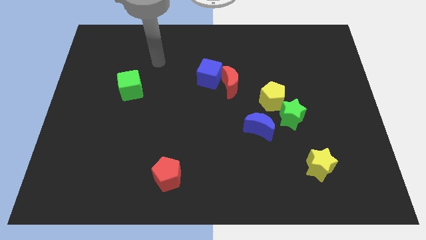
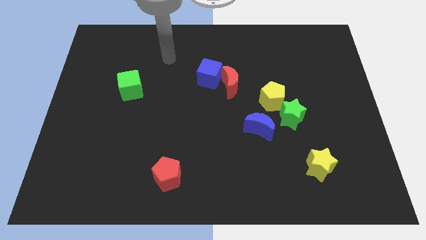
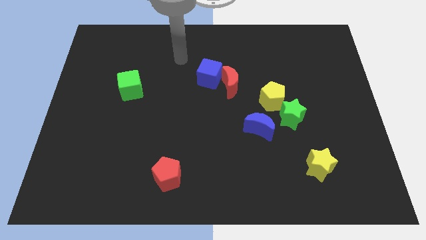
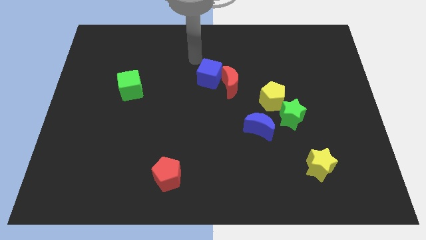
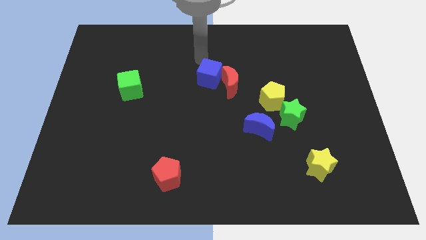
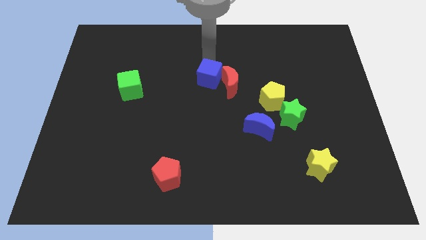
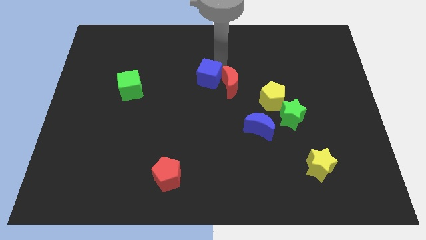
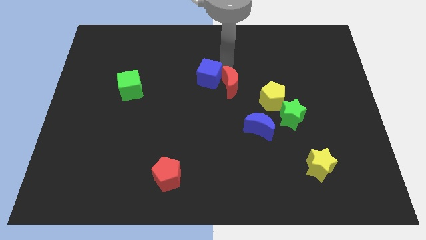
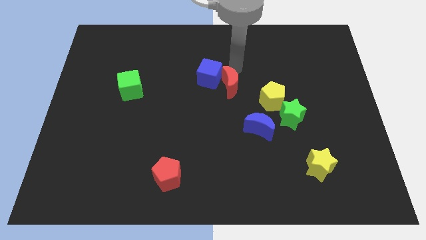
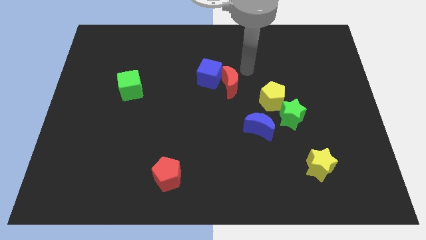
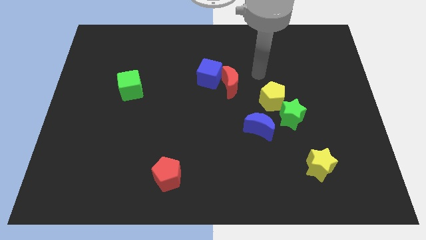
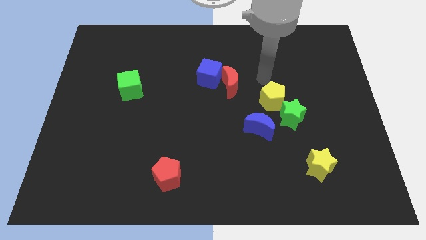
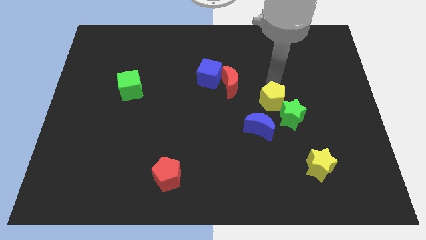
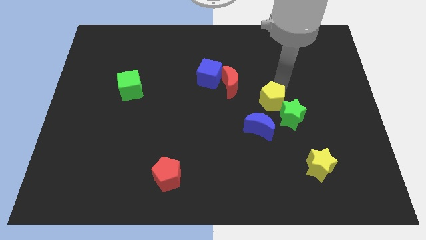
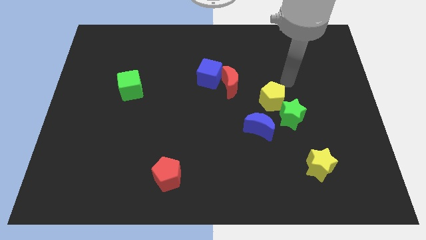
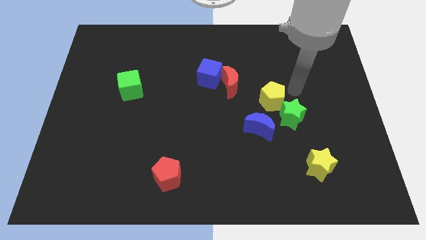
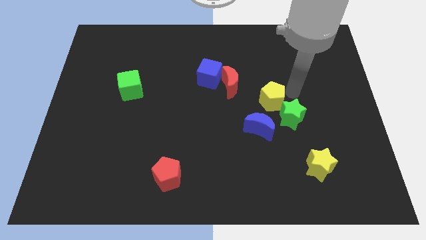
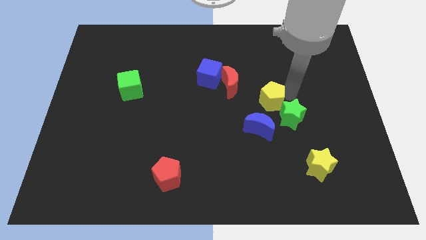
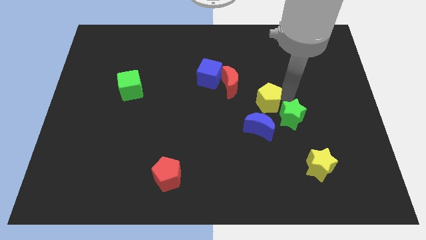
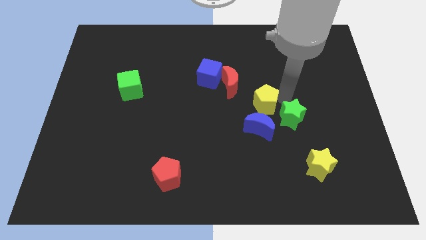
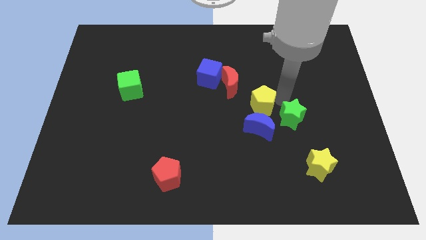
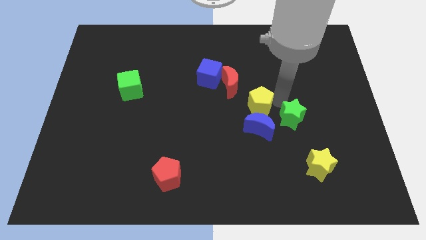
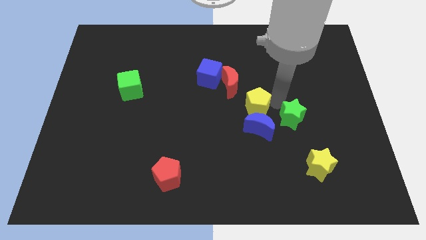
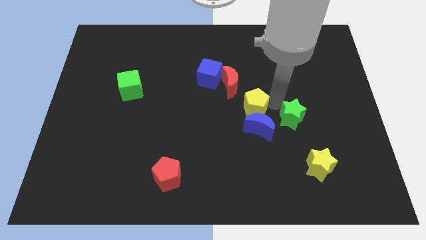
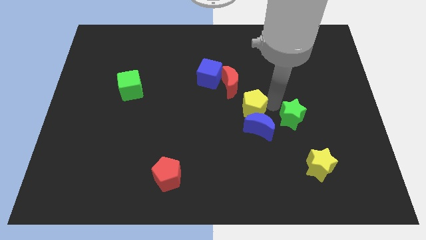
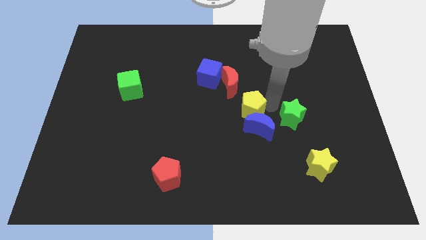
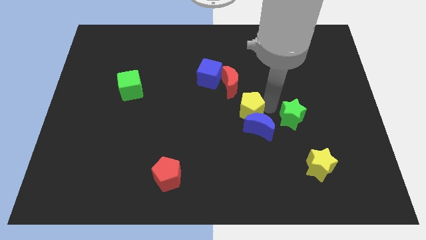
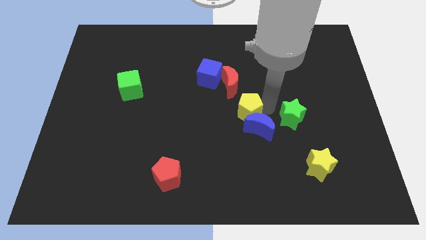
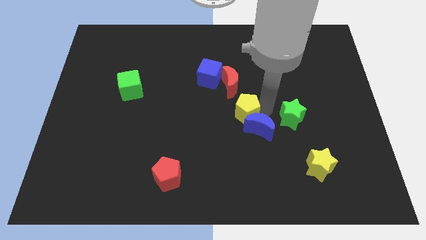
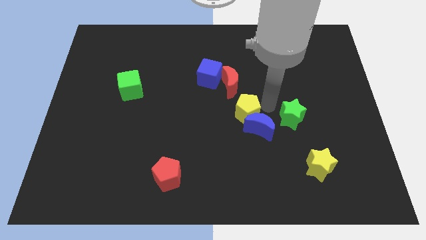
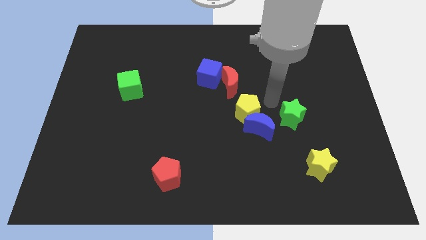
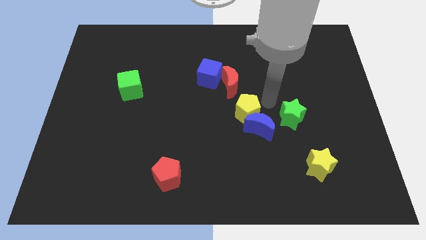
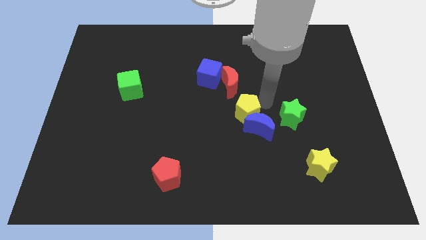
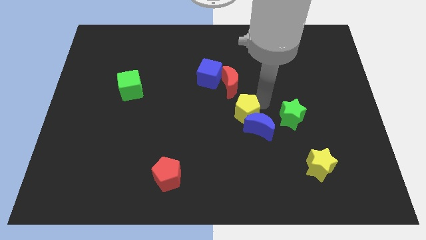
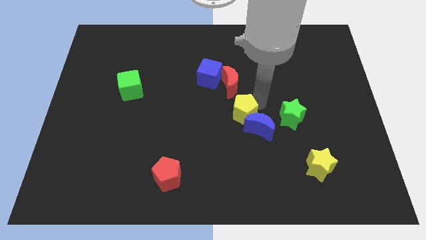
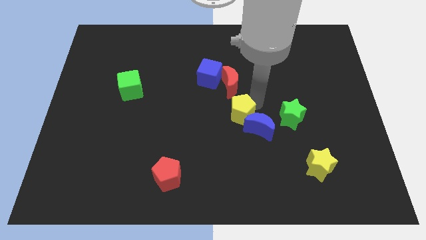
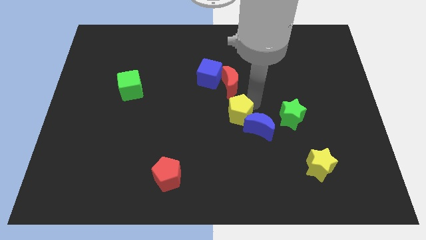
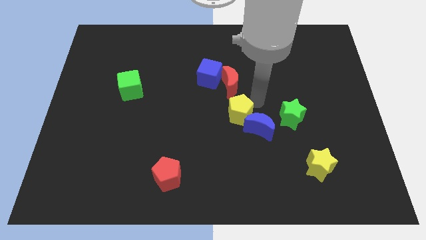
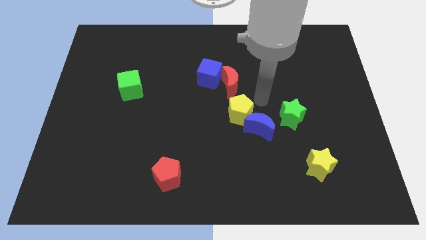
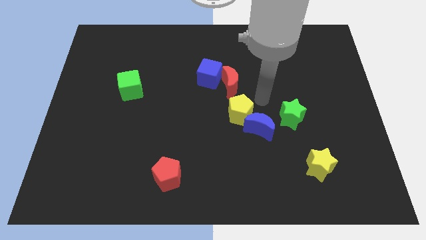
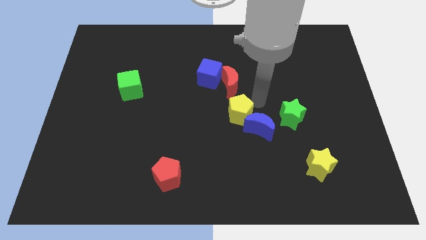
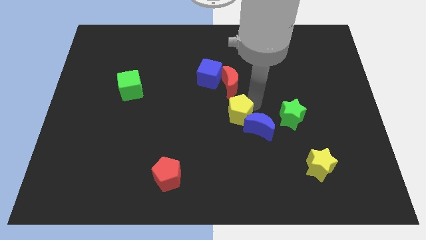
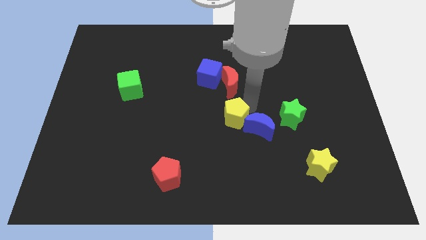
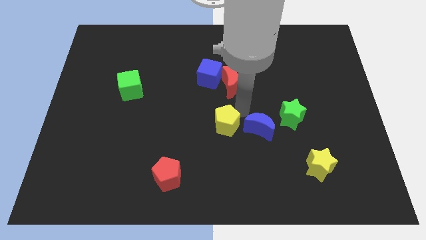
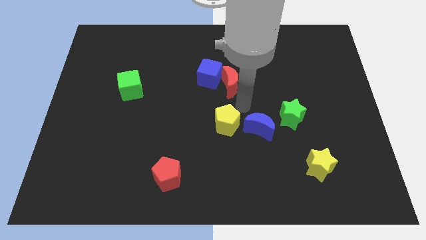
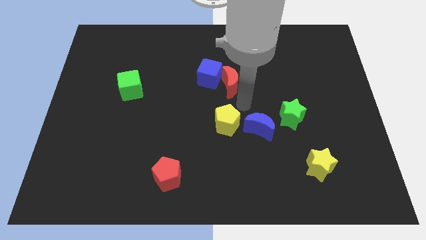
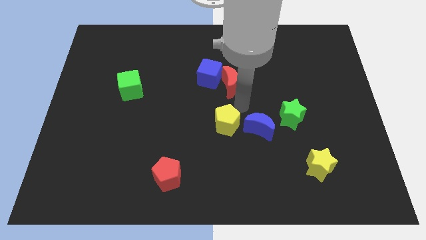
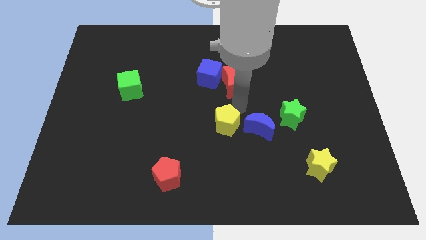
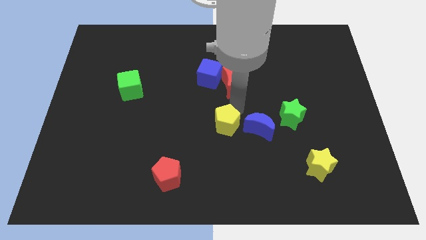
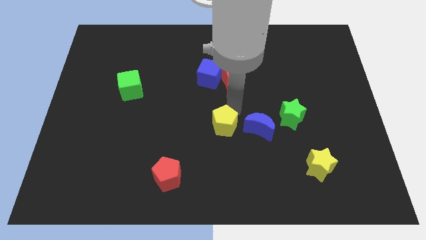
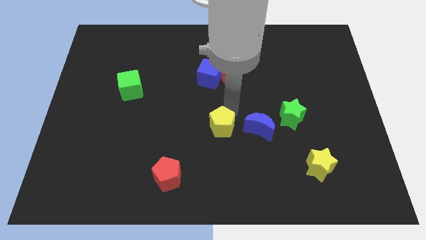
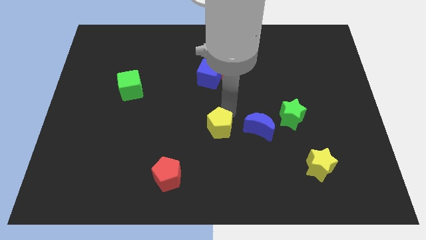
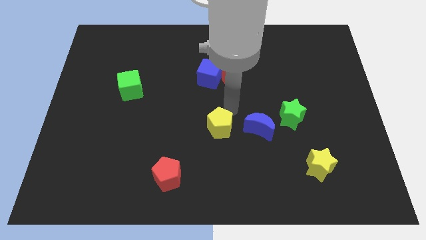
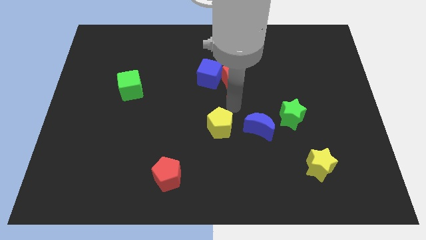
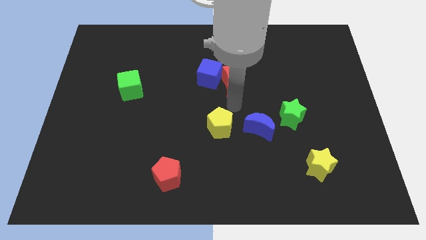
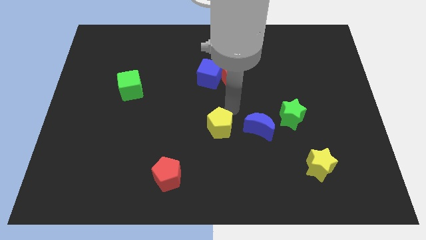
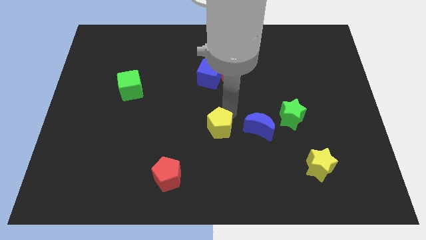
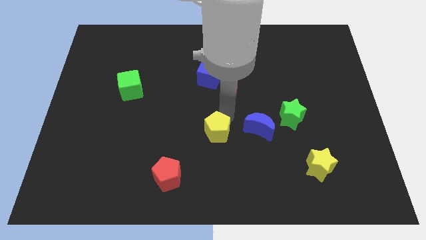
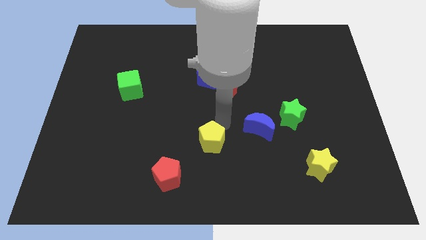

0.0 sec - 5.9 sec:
put the yellow pentagon to the top right of the red pentagon

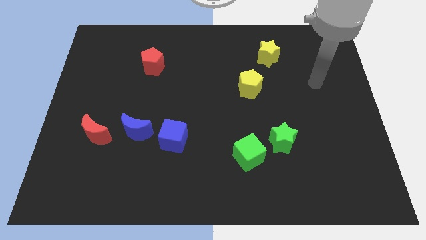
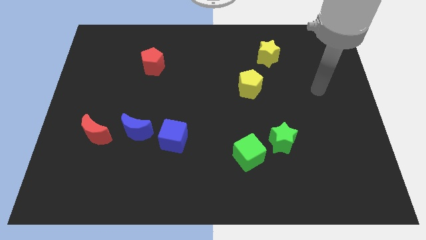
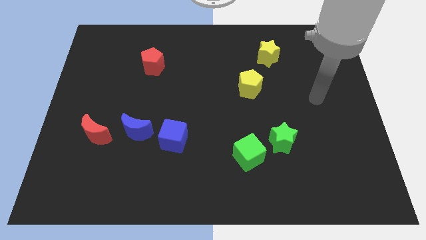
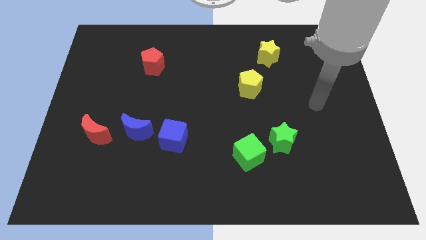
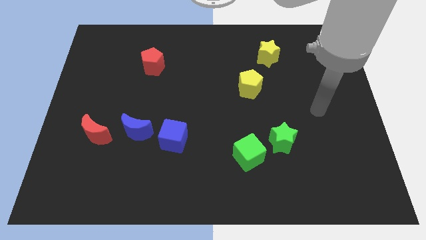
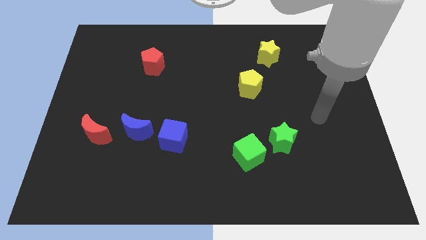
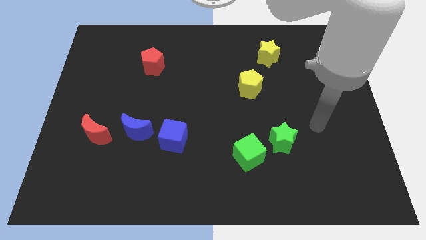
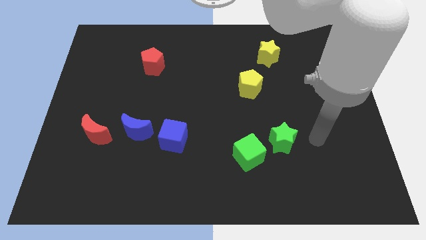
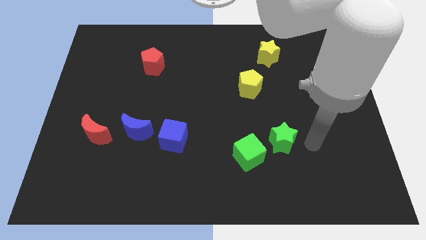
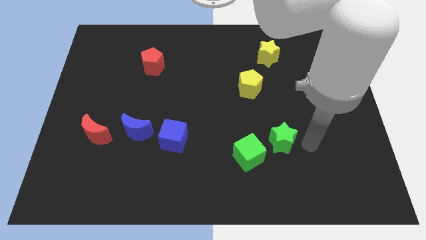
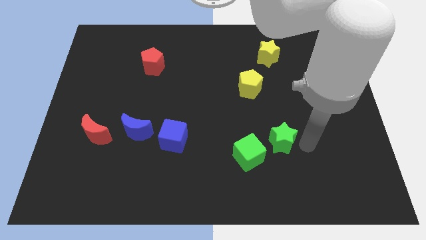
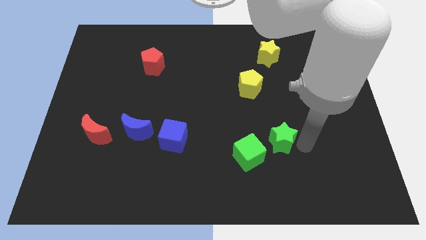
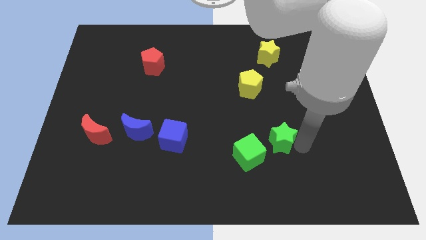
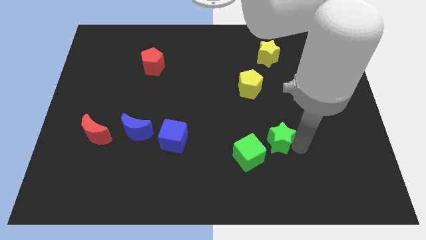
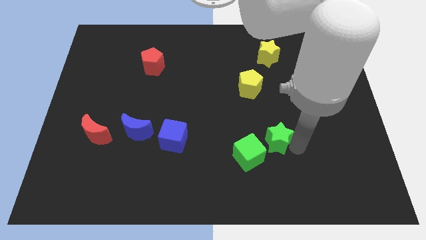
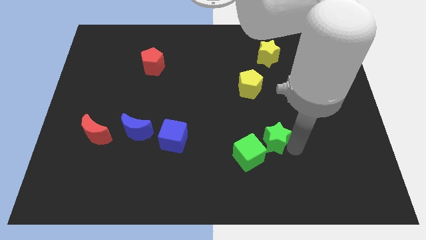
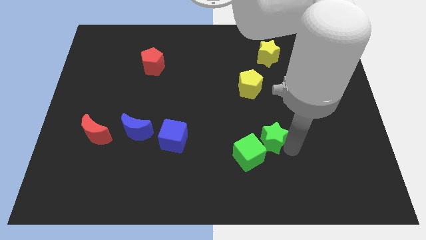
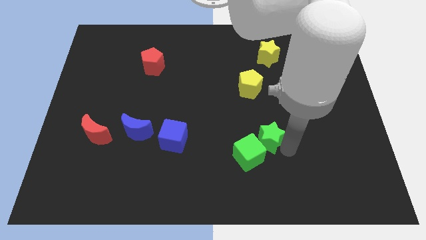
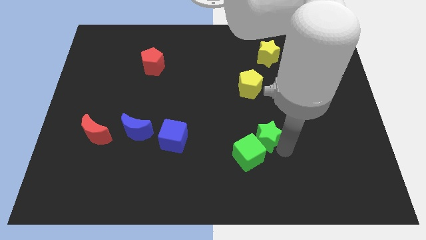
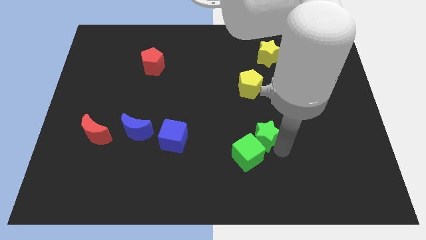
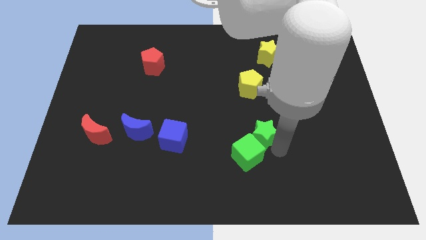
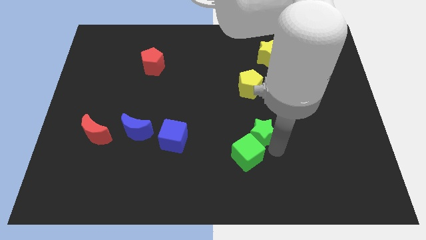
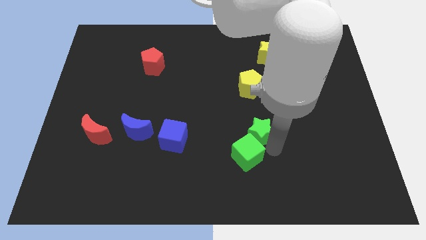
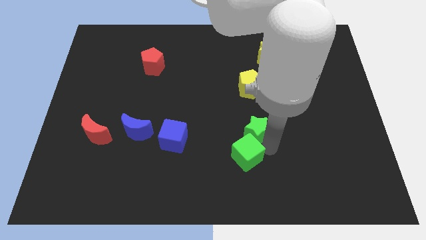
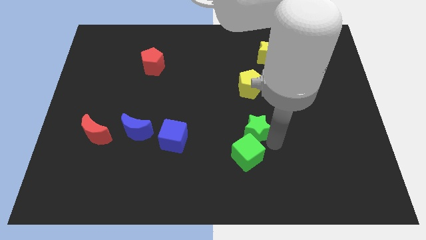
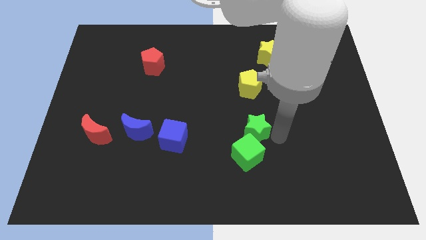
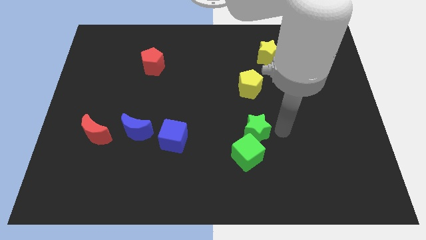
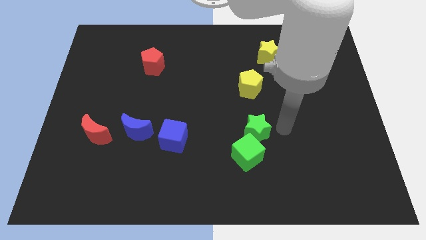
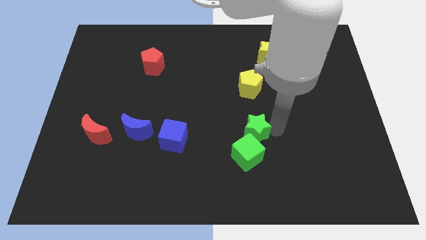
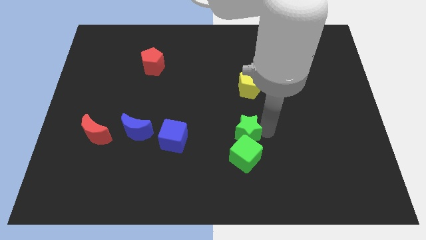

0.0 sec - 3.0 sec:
push the green star to the right of the blue cube
